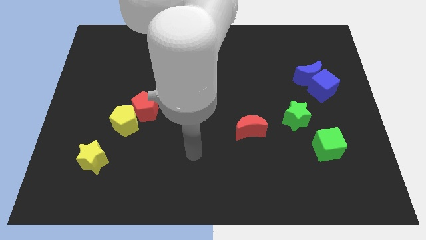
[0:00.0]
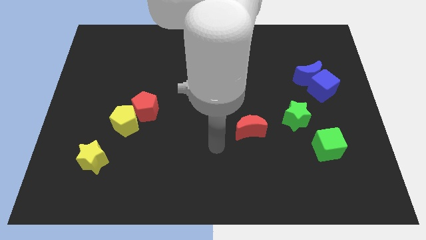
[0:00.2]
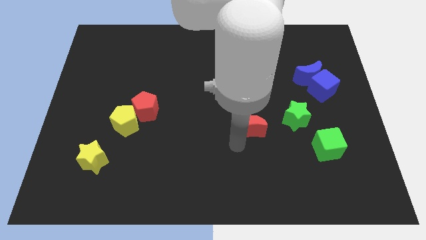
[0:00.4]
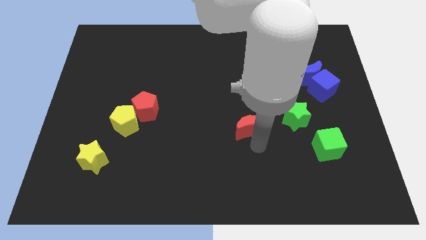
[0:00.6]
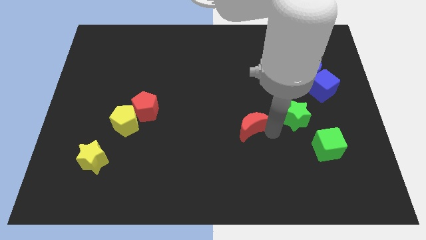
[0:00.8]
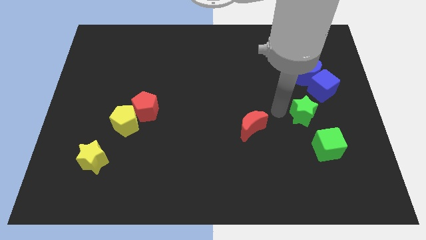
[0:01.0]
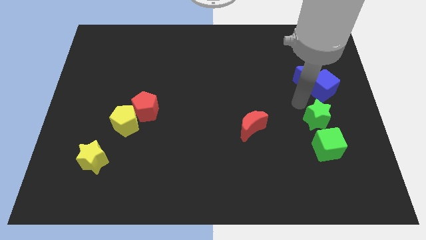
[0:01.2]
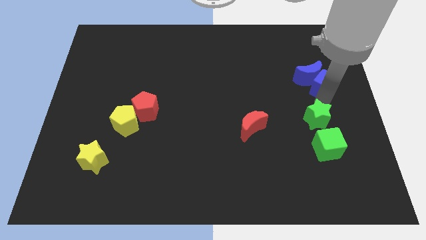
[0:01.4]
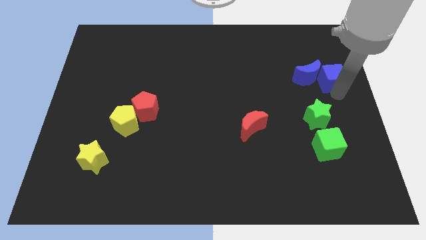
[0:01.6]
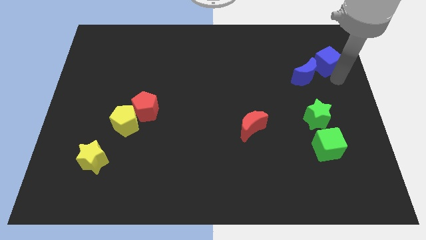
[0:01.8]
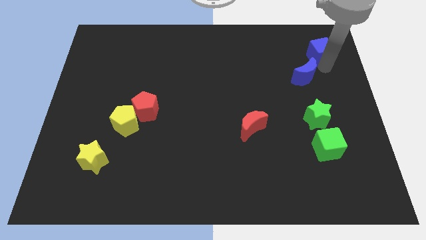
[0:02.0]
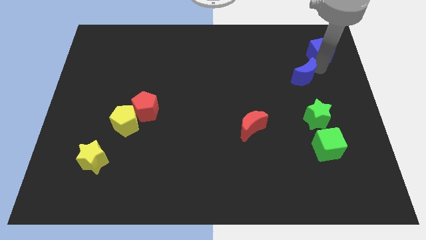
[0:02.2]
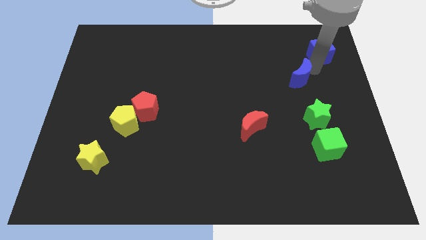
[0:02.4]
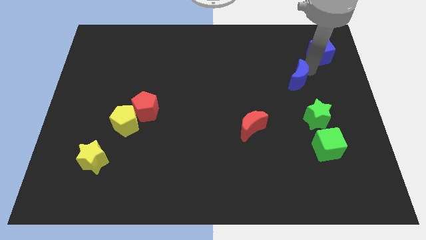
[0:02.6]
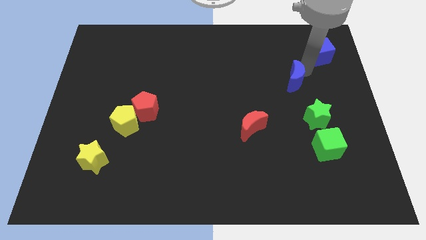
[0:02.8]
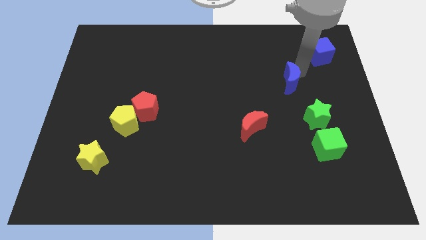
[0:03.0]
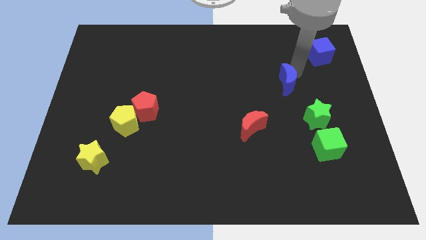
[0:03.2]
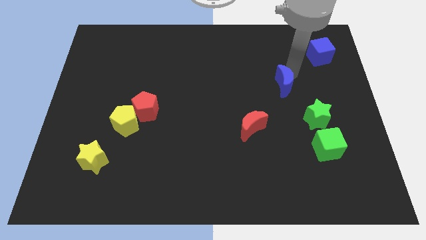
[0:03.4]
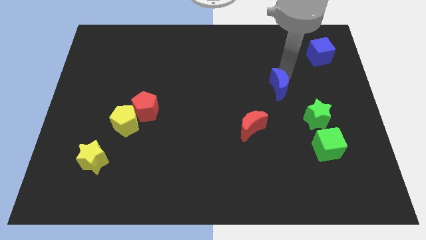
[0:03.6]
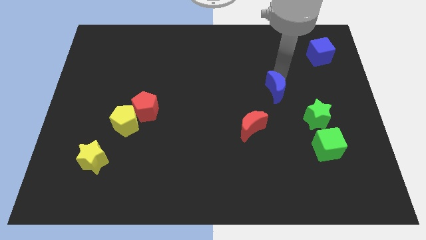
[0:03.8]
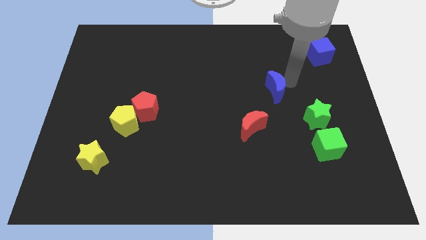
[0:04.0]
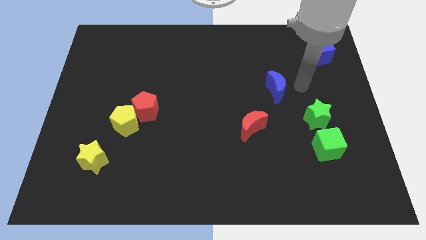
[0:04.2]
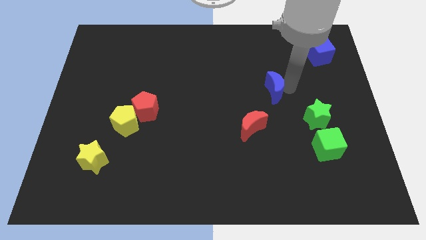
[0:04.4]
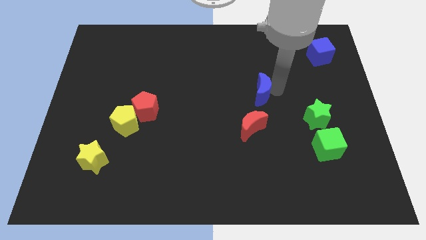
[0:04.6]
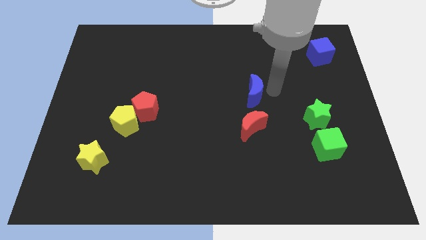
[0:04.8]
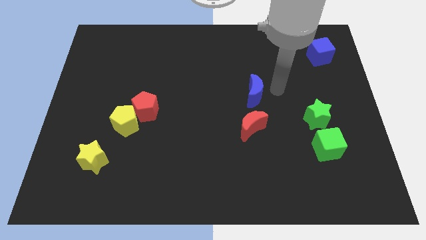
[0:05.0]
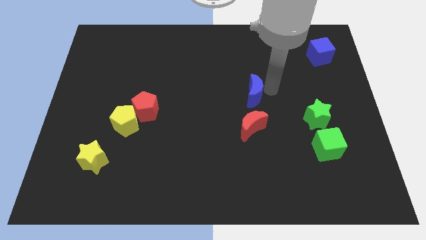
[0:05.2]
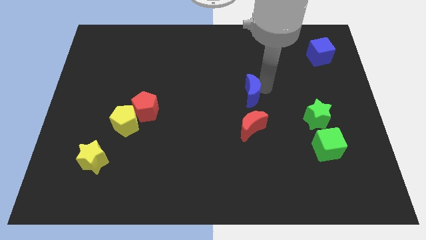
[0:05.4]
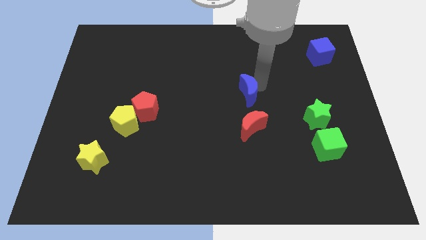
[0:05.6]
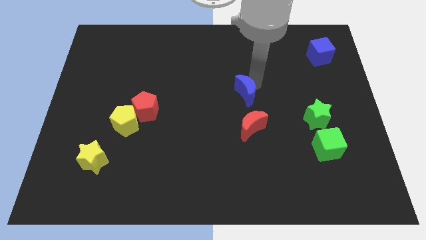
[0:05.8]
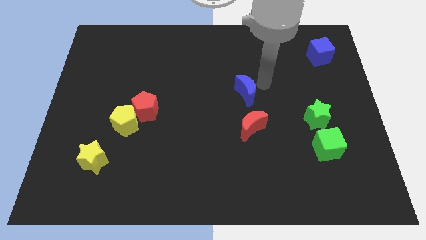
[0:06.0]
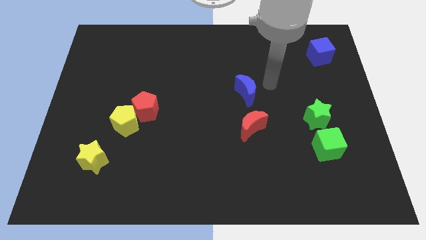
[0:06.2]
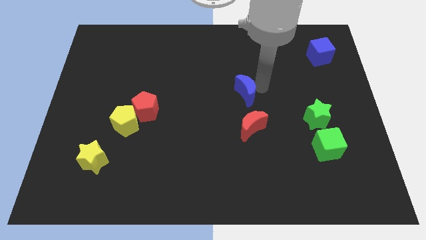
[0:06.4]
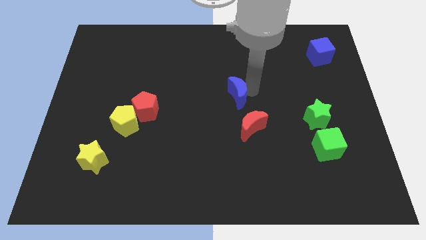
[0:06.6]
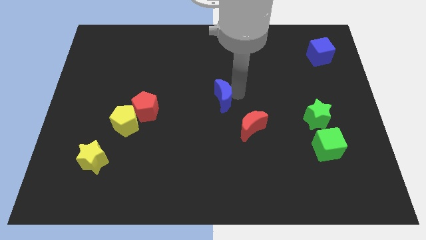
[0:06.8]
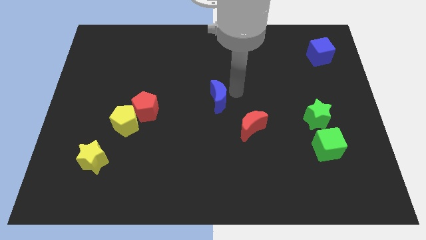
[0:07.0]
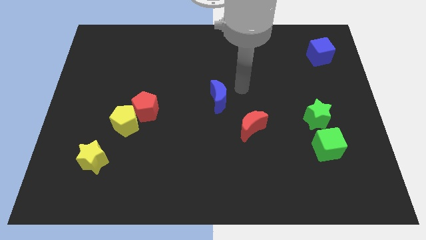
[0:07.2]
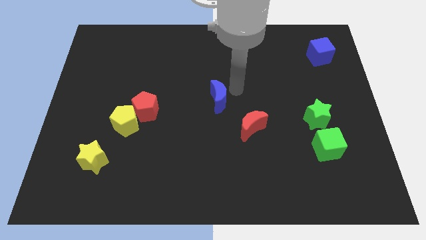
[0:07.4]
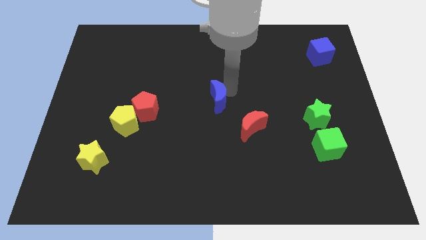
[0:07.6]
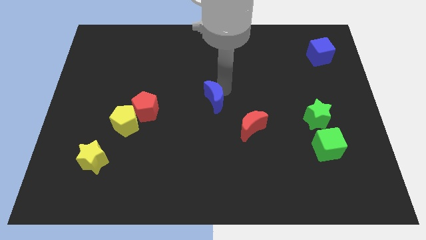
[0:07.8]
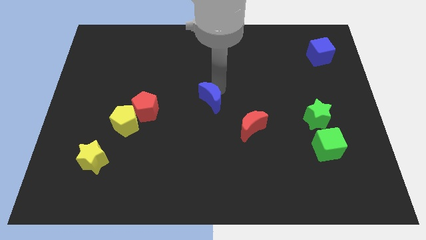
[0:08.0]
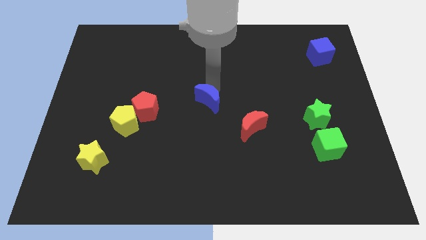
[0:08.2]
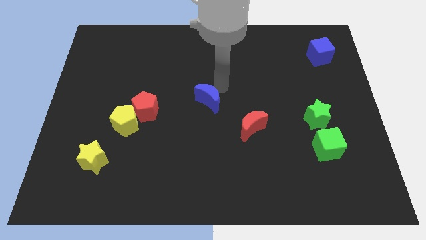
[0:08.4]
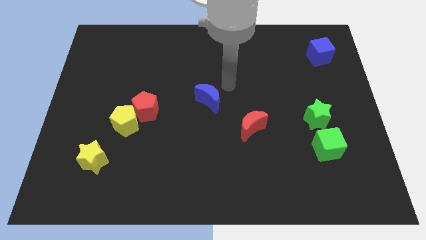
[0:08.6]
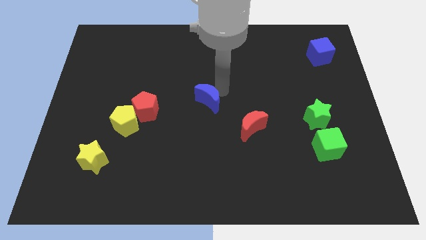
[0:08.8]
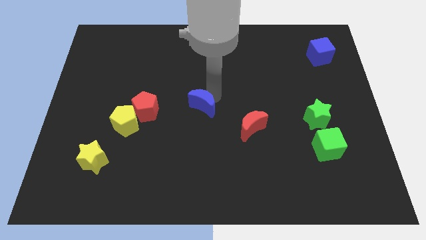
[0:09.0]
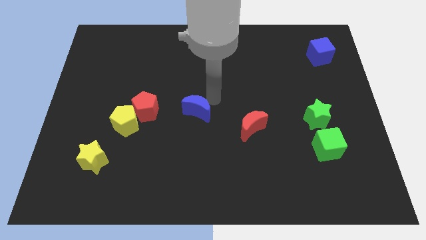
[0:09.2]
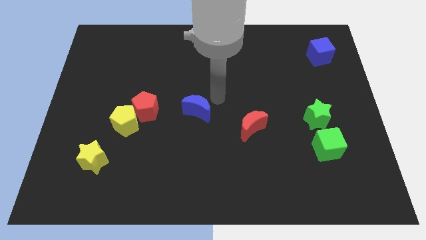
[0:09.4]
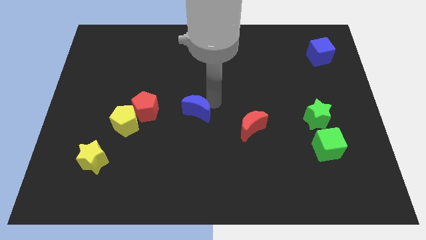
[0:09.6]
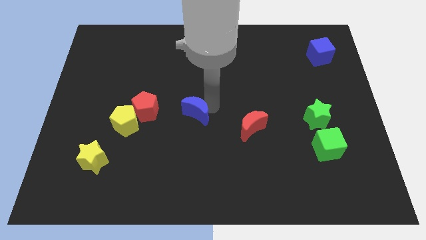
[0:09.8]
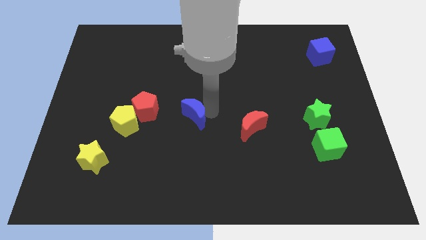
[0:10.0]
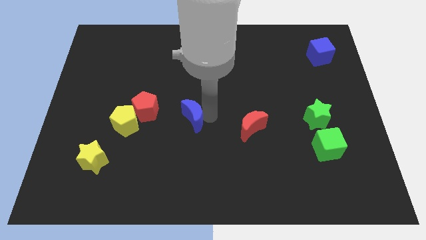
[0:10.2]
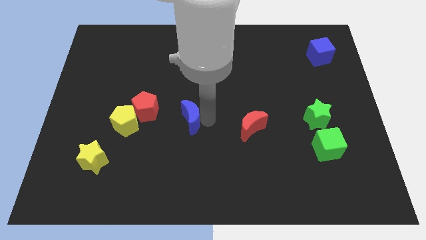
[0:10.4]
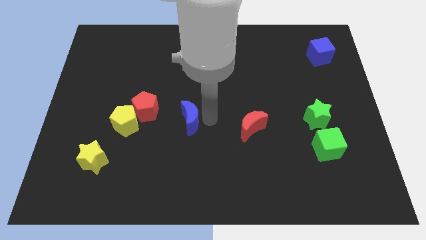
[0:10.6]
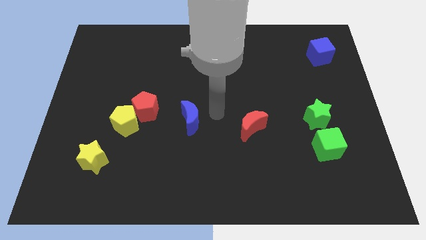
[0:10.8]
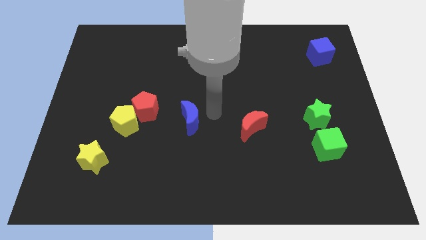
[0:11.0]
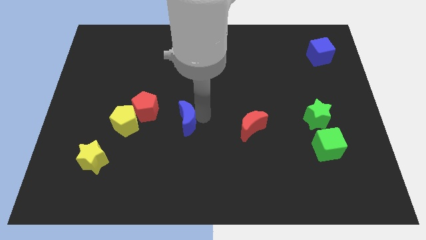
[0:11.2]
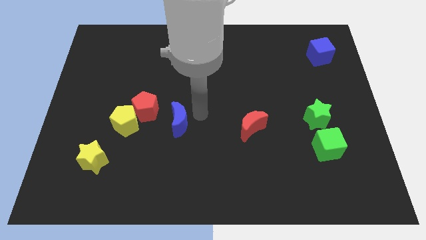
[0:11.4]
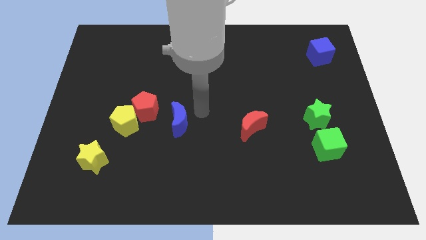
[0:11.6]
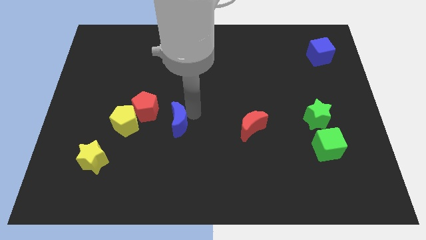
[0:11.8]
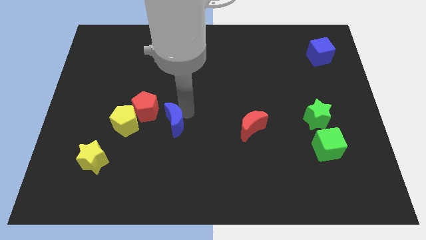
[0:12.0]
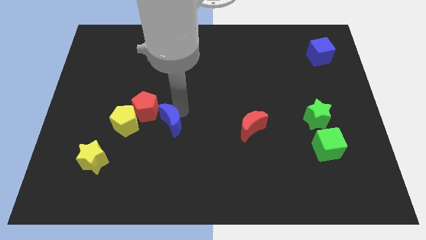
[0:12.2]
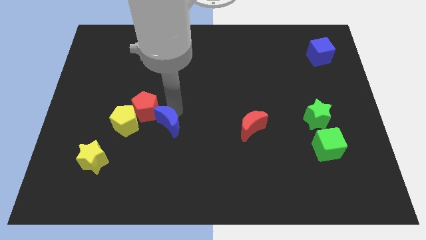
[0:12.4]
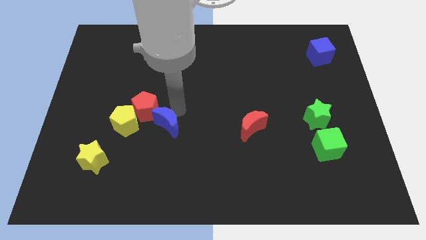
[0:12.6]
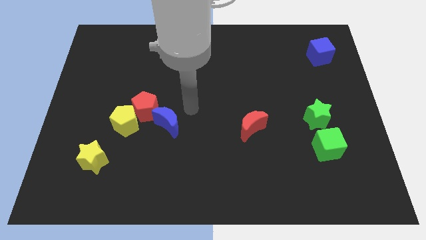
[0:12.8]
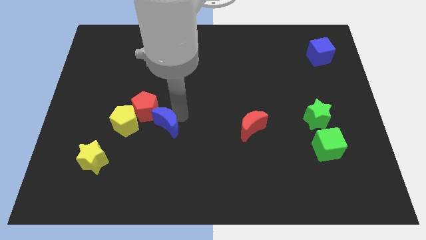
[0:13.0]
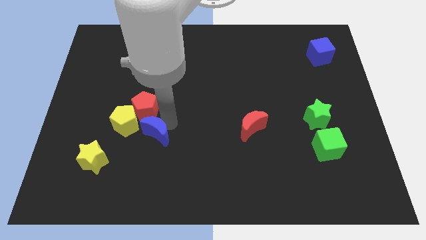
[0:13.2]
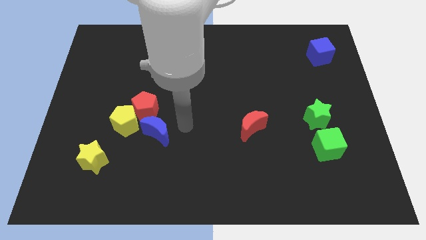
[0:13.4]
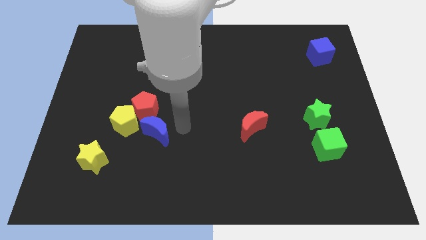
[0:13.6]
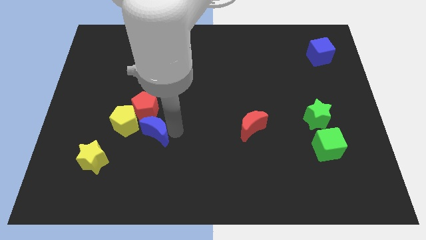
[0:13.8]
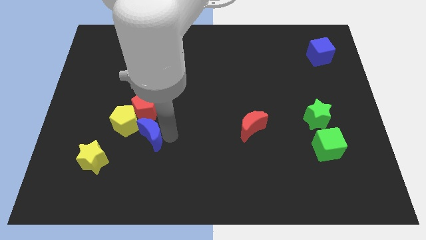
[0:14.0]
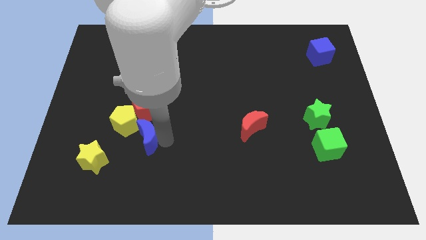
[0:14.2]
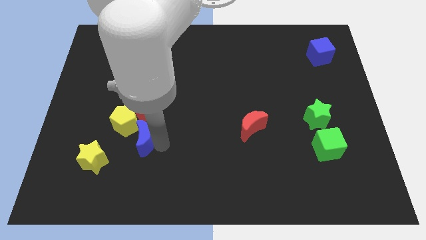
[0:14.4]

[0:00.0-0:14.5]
move the blue moon to the top right side of the yellow star
